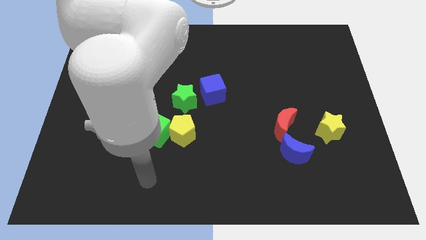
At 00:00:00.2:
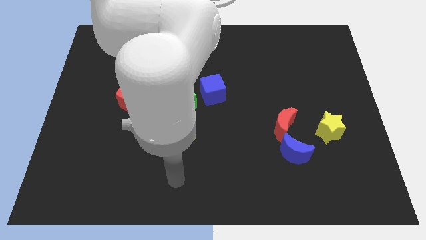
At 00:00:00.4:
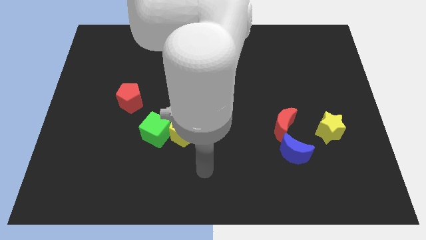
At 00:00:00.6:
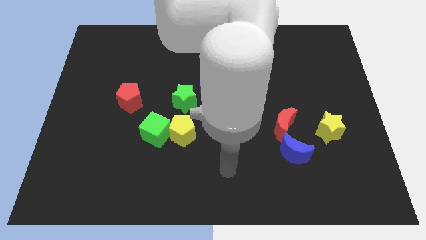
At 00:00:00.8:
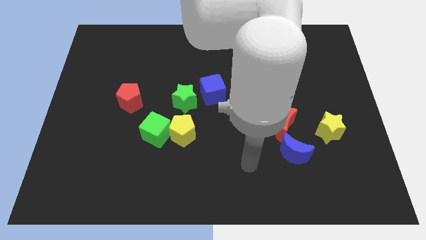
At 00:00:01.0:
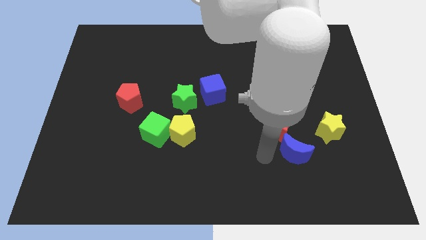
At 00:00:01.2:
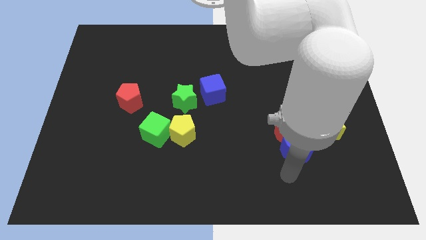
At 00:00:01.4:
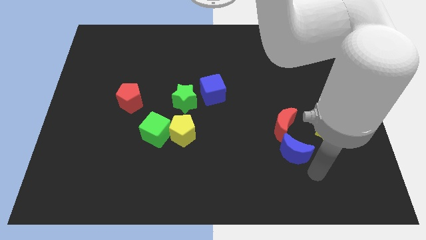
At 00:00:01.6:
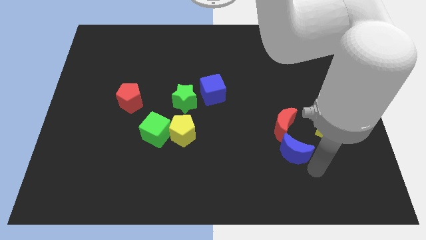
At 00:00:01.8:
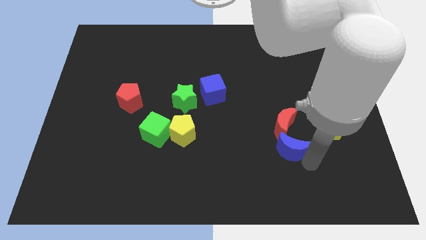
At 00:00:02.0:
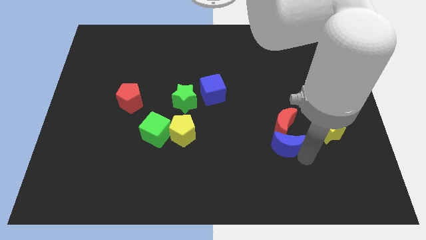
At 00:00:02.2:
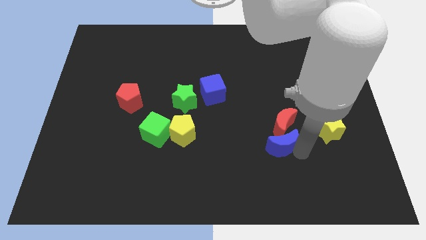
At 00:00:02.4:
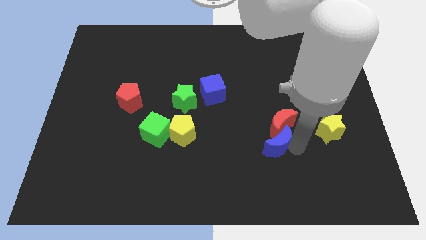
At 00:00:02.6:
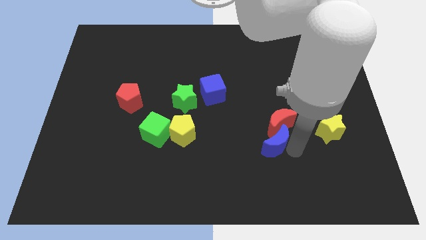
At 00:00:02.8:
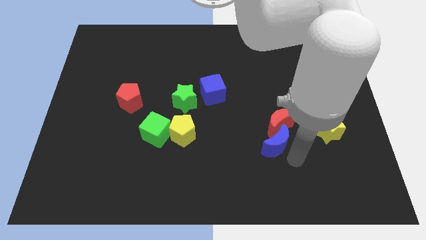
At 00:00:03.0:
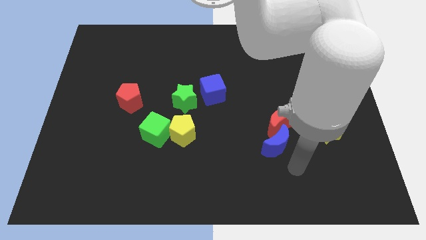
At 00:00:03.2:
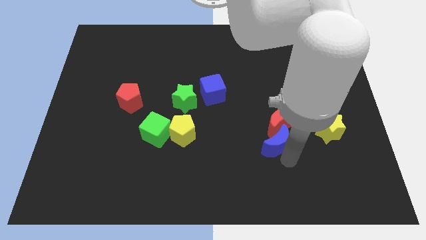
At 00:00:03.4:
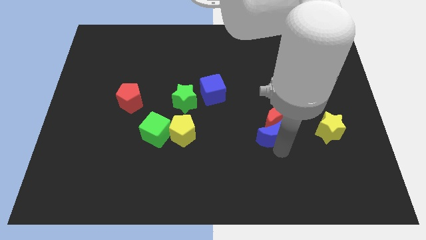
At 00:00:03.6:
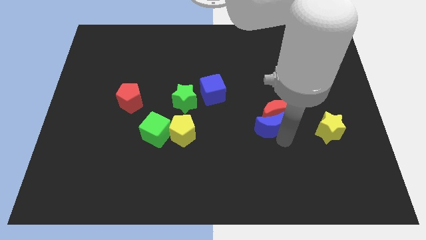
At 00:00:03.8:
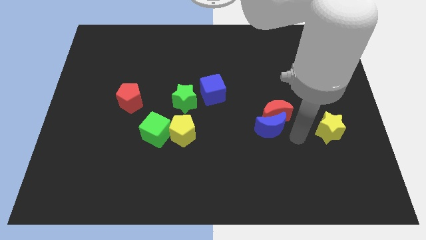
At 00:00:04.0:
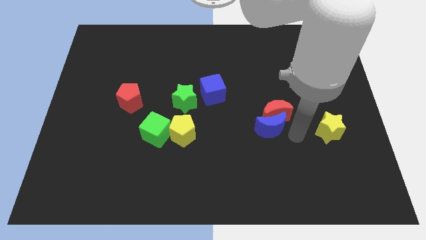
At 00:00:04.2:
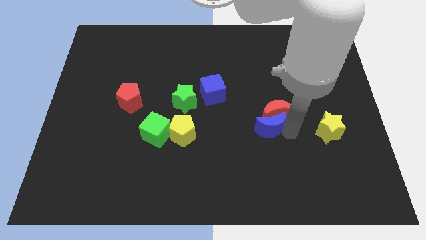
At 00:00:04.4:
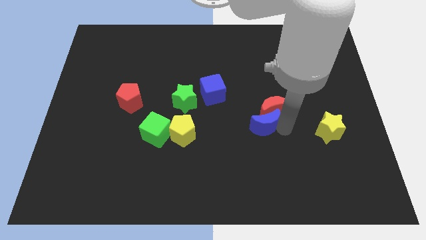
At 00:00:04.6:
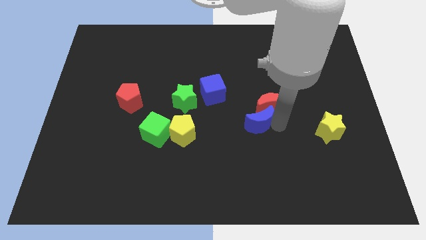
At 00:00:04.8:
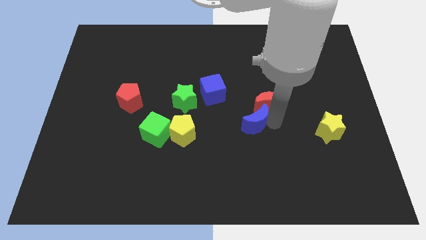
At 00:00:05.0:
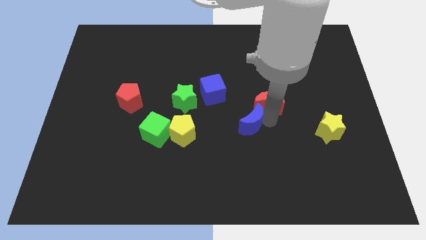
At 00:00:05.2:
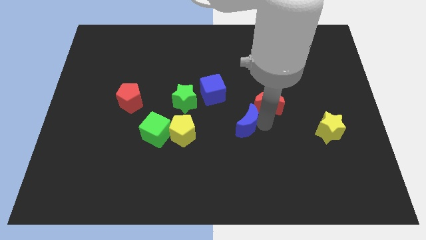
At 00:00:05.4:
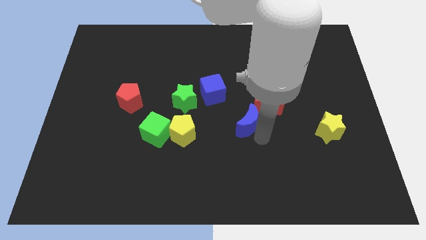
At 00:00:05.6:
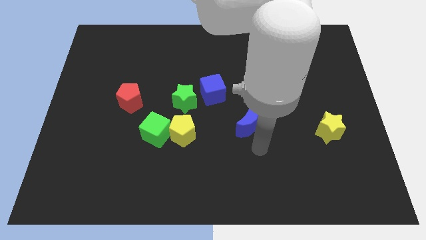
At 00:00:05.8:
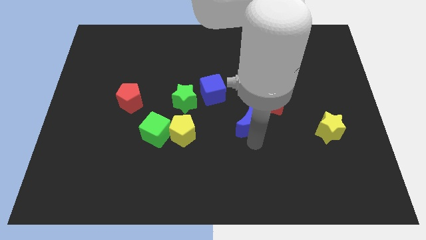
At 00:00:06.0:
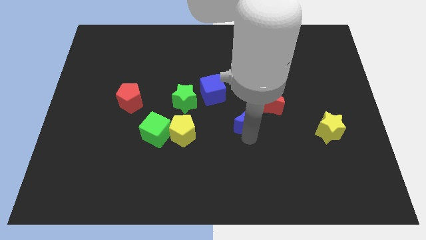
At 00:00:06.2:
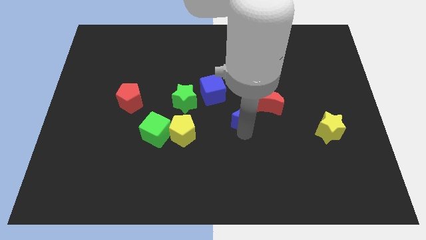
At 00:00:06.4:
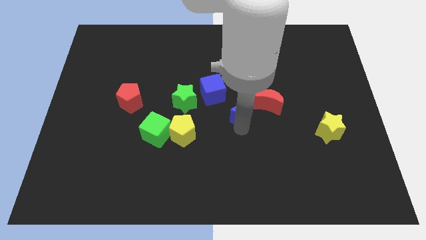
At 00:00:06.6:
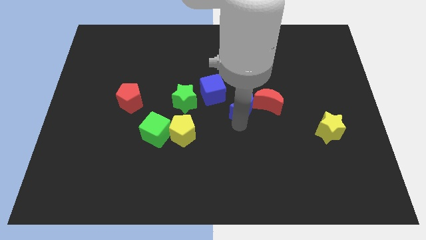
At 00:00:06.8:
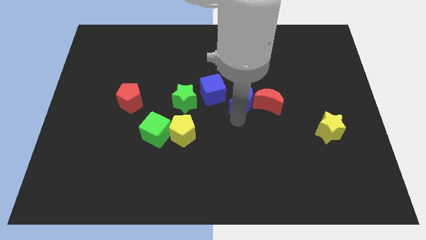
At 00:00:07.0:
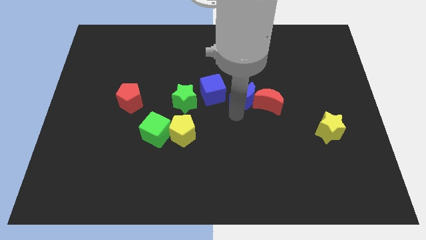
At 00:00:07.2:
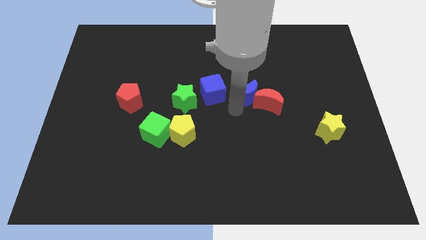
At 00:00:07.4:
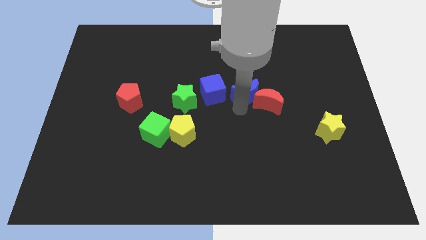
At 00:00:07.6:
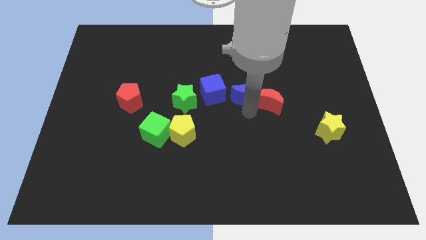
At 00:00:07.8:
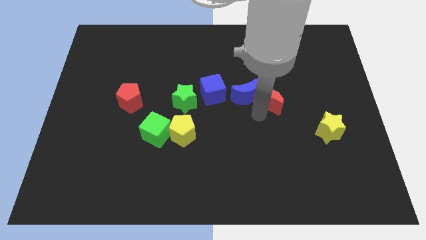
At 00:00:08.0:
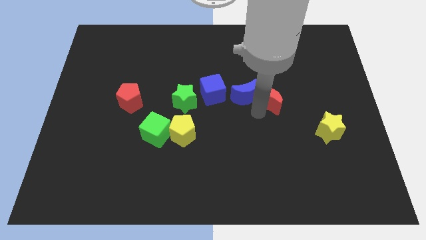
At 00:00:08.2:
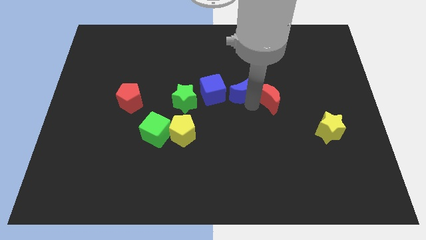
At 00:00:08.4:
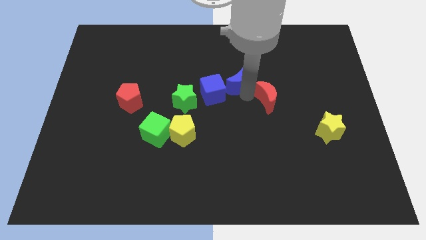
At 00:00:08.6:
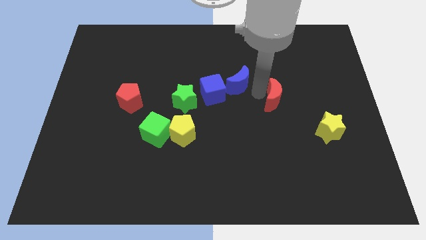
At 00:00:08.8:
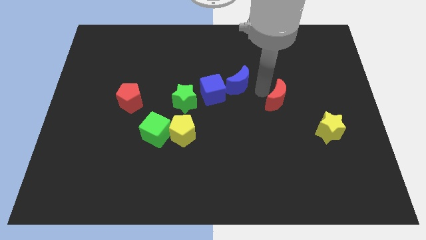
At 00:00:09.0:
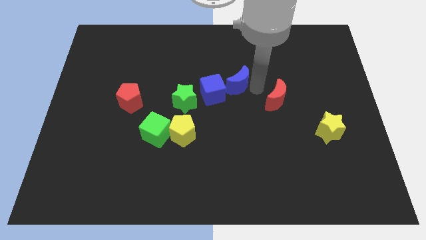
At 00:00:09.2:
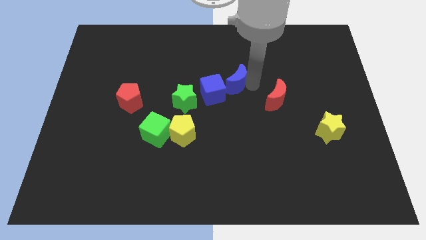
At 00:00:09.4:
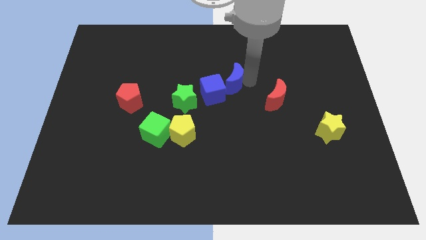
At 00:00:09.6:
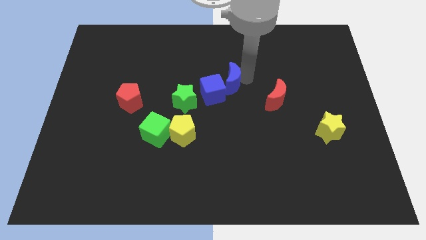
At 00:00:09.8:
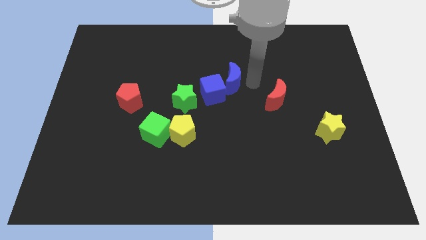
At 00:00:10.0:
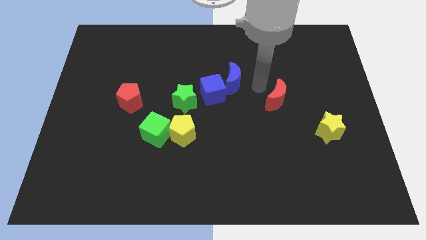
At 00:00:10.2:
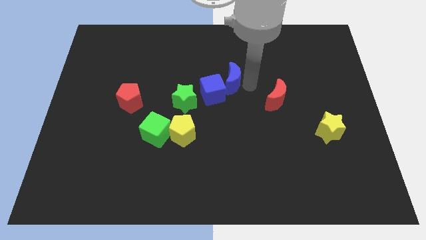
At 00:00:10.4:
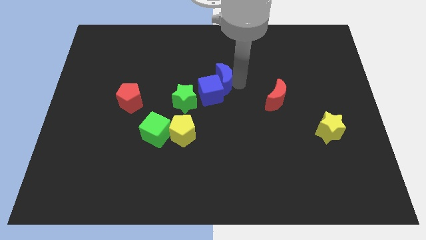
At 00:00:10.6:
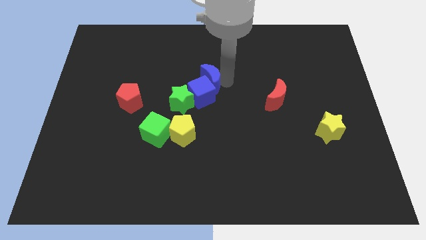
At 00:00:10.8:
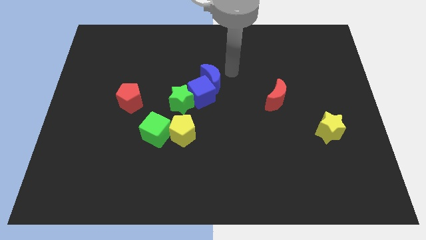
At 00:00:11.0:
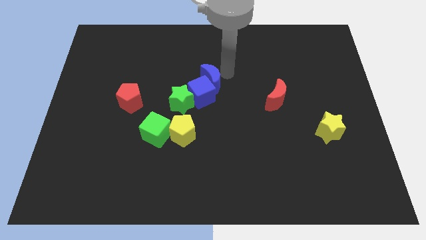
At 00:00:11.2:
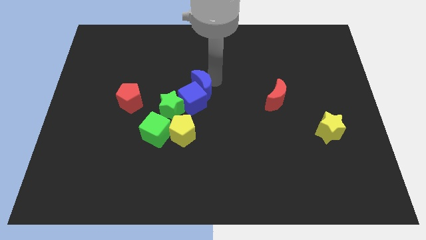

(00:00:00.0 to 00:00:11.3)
push the blue moon to the top side of the yellow pentagon
